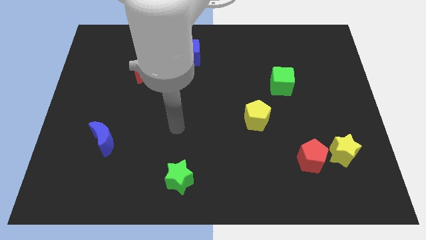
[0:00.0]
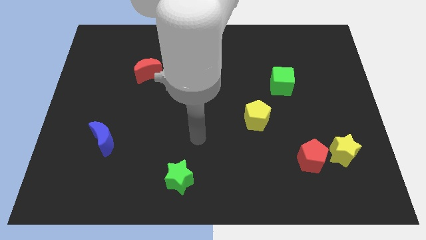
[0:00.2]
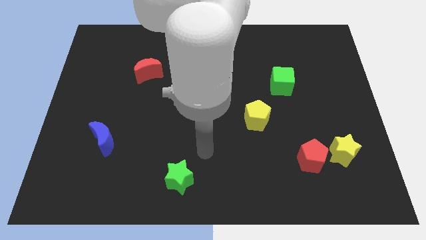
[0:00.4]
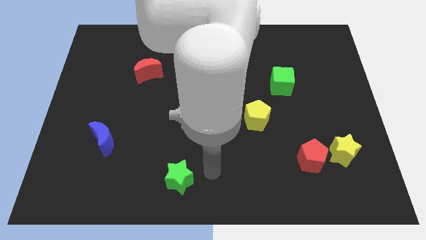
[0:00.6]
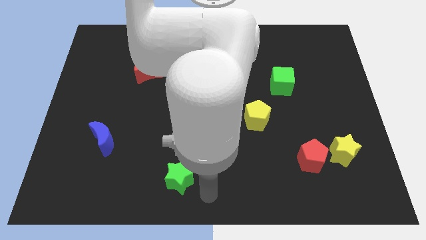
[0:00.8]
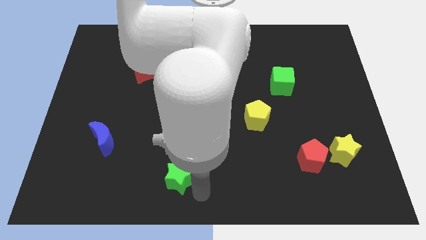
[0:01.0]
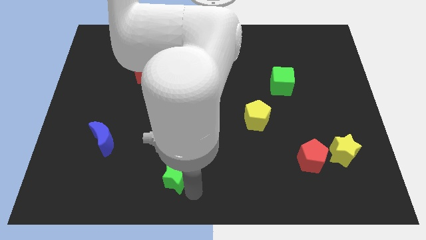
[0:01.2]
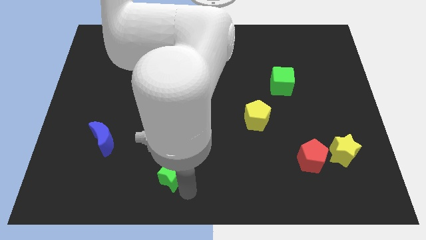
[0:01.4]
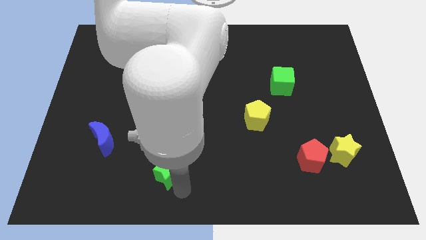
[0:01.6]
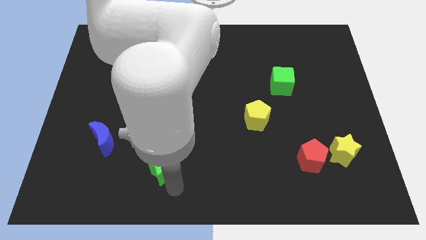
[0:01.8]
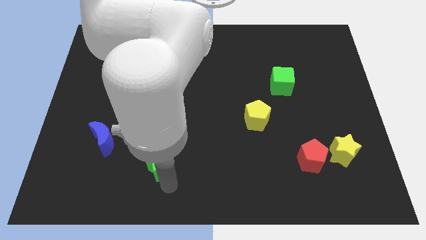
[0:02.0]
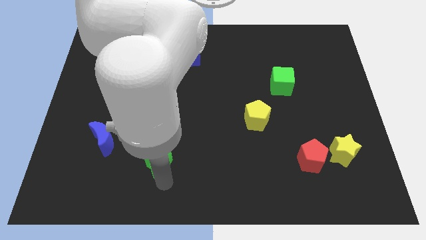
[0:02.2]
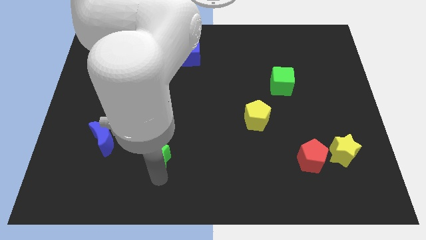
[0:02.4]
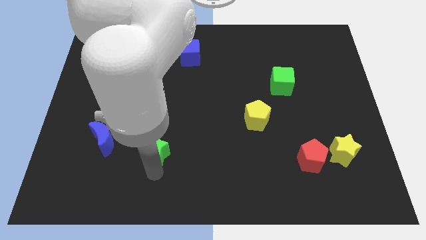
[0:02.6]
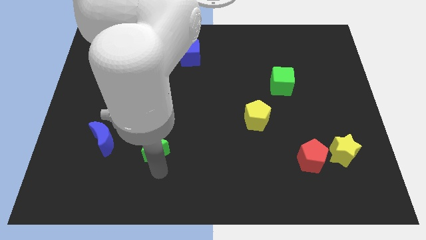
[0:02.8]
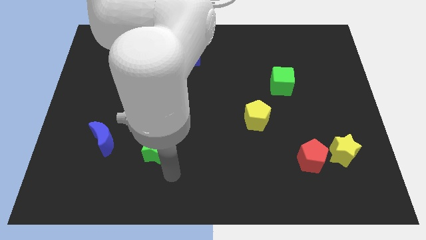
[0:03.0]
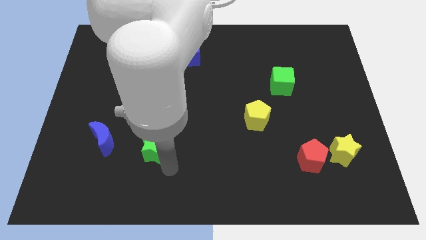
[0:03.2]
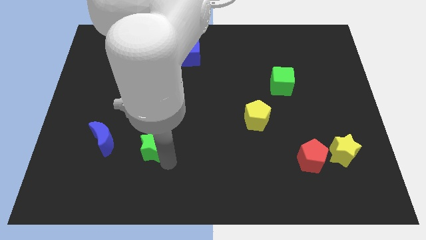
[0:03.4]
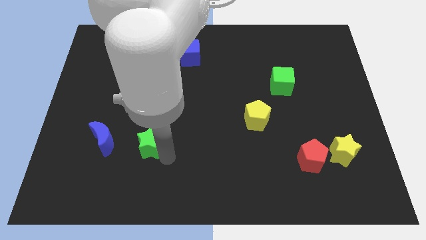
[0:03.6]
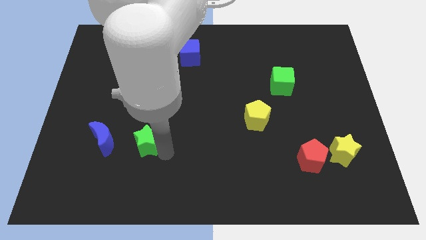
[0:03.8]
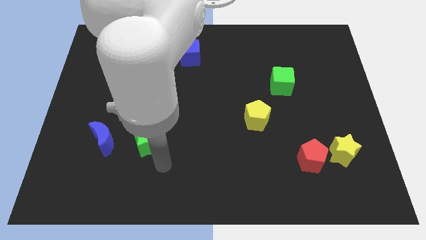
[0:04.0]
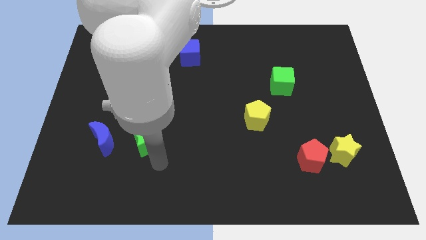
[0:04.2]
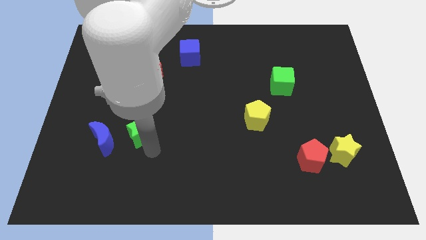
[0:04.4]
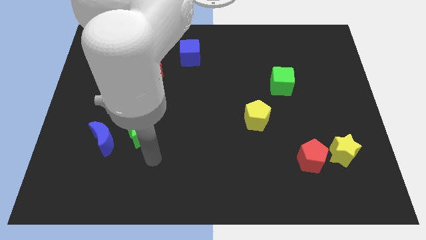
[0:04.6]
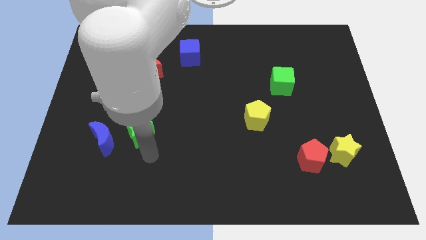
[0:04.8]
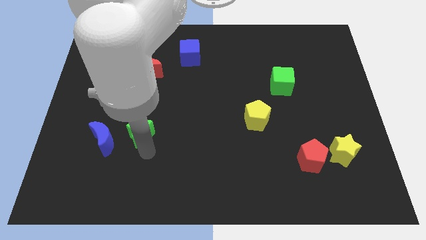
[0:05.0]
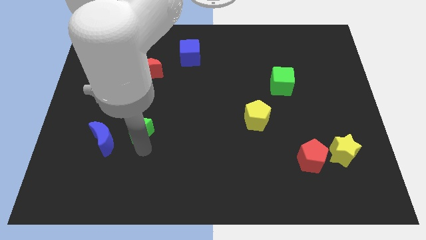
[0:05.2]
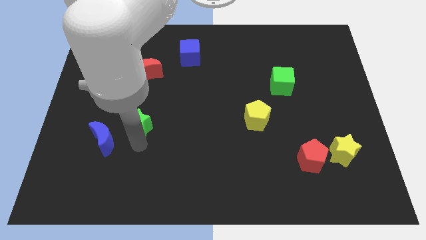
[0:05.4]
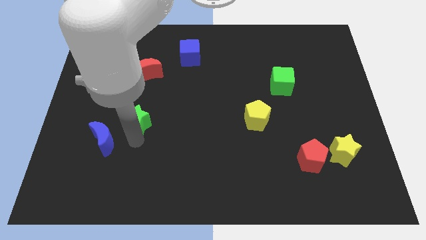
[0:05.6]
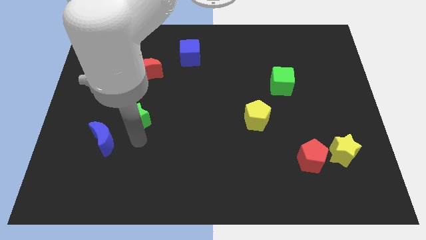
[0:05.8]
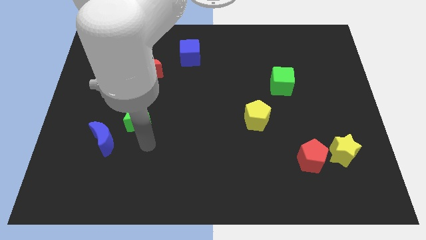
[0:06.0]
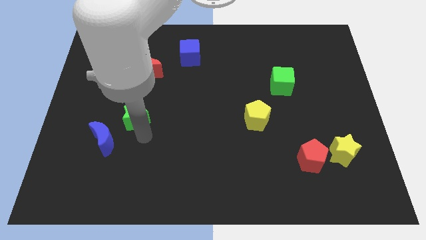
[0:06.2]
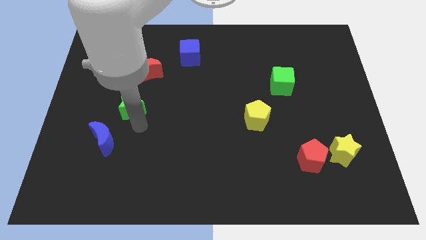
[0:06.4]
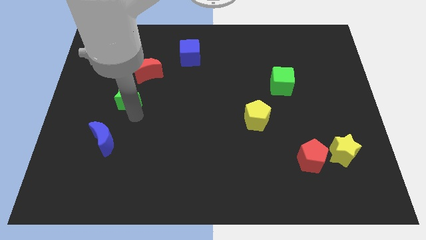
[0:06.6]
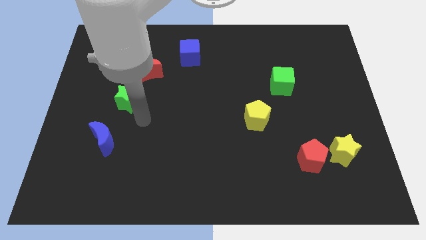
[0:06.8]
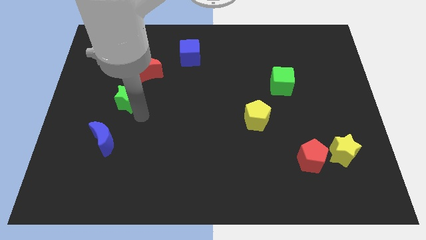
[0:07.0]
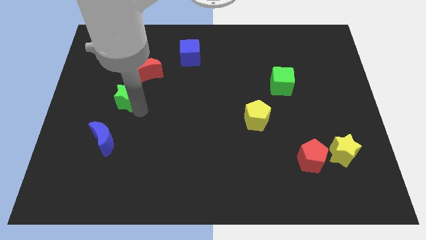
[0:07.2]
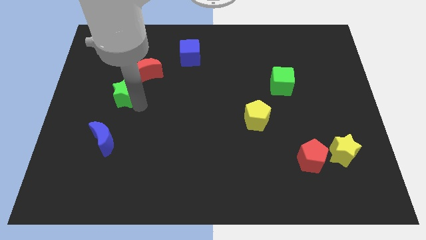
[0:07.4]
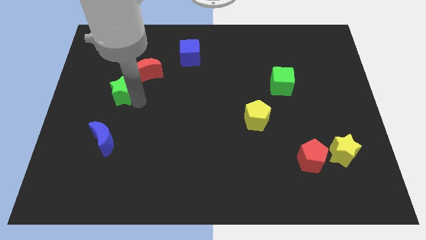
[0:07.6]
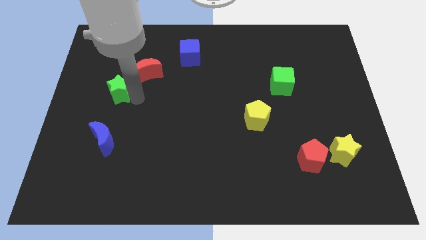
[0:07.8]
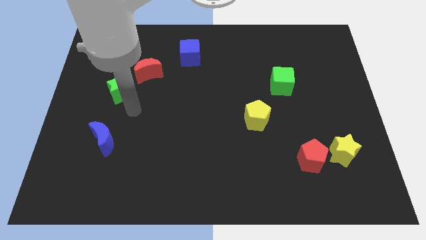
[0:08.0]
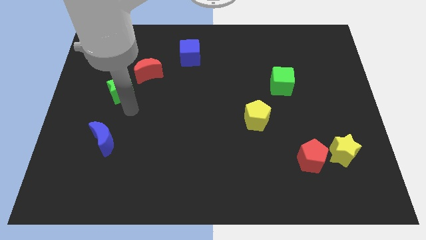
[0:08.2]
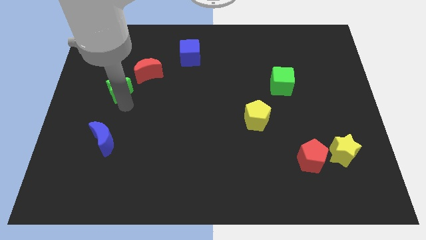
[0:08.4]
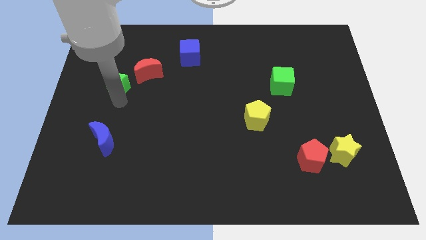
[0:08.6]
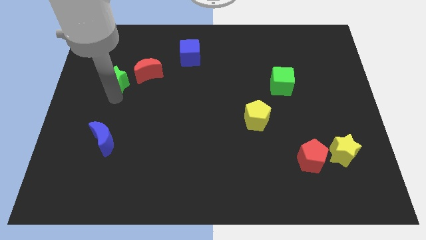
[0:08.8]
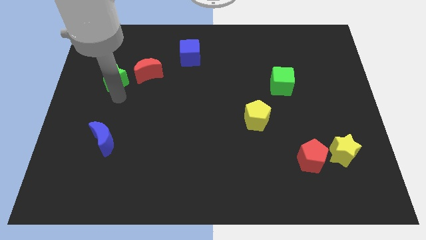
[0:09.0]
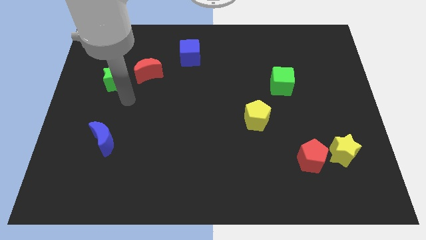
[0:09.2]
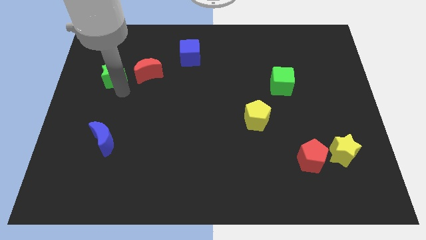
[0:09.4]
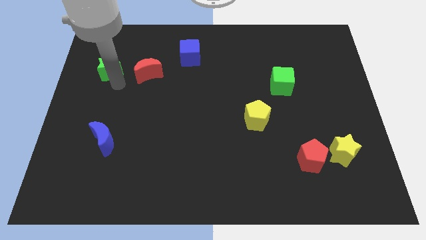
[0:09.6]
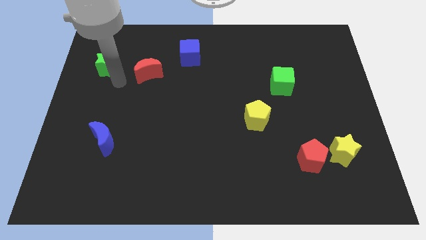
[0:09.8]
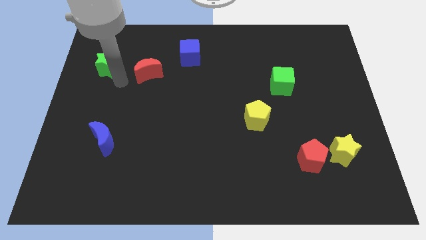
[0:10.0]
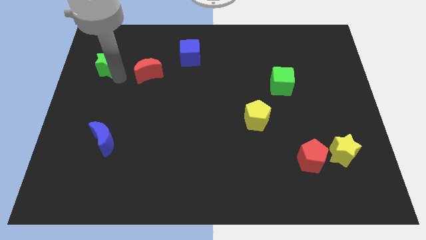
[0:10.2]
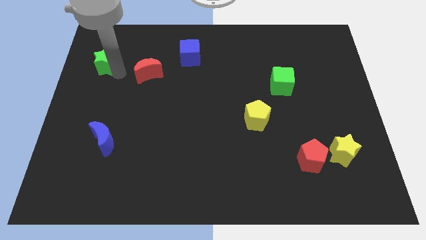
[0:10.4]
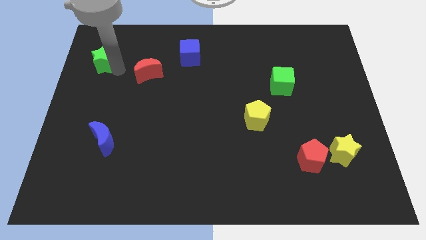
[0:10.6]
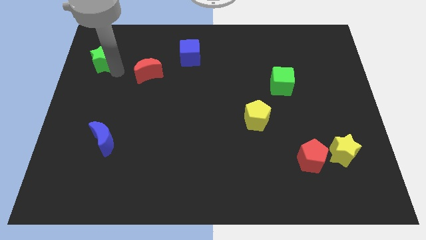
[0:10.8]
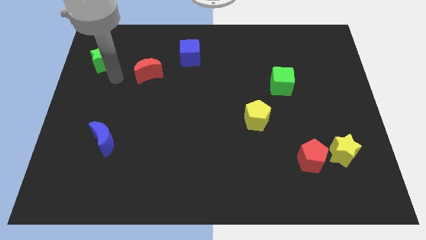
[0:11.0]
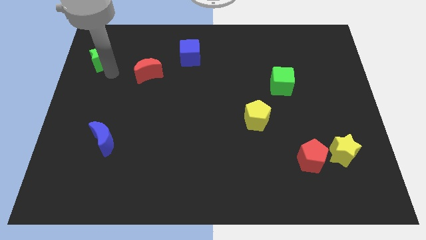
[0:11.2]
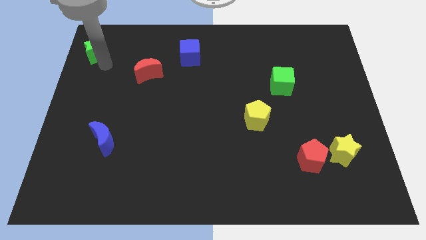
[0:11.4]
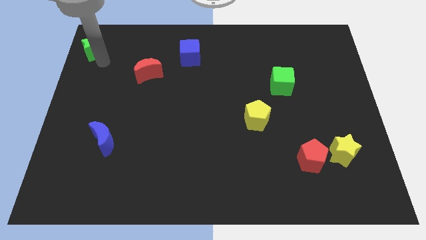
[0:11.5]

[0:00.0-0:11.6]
move the green star to the upper left corner

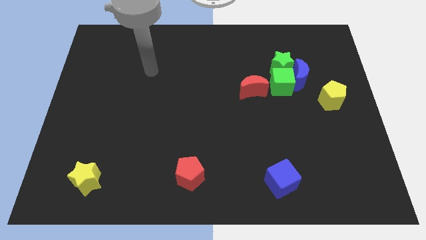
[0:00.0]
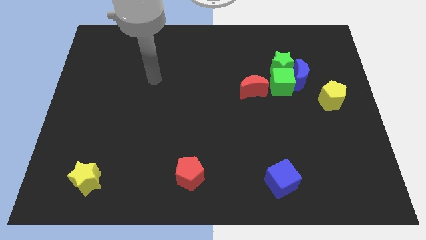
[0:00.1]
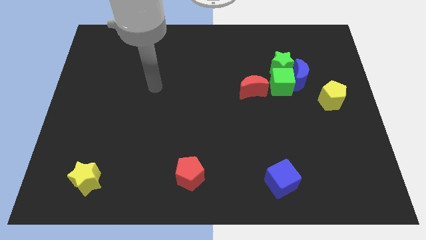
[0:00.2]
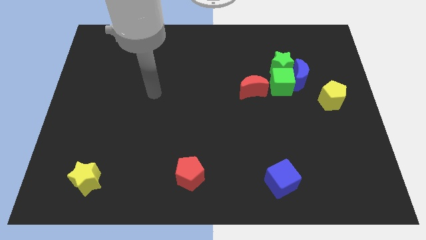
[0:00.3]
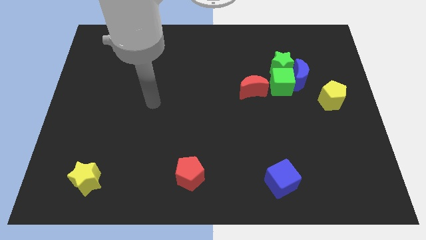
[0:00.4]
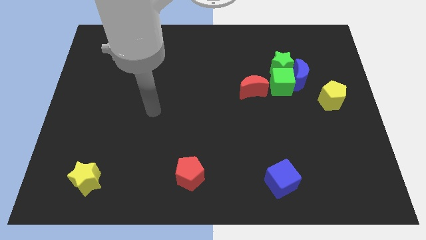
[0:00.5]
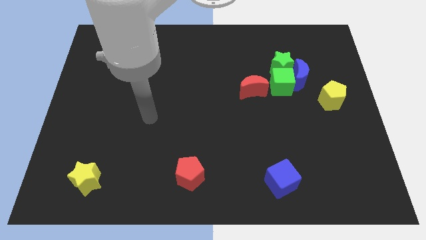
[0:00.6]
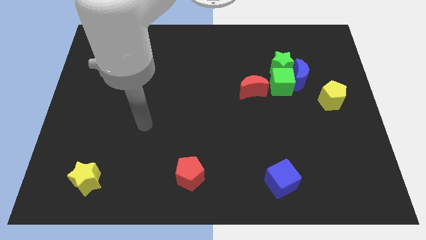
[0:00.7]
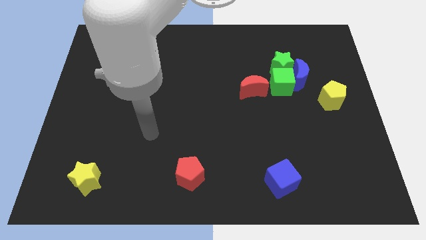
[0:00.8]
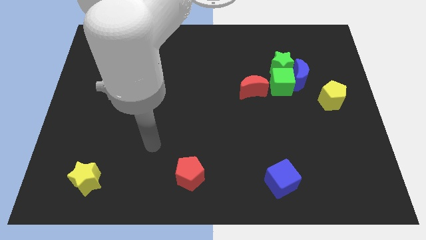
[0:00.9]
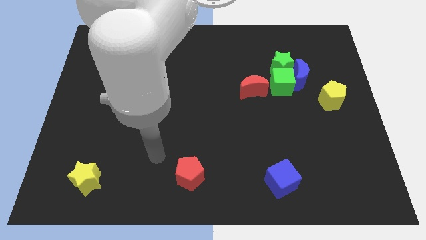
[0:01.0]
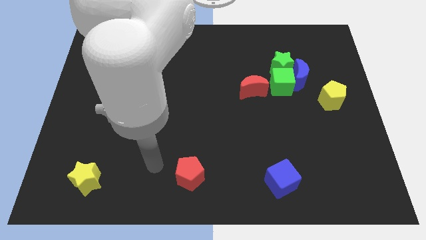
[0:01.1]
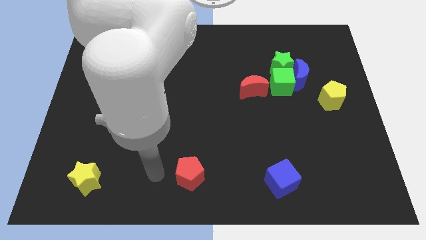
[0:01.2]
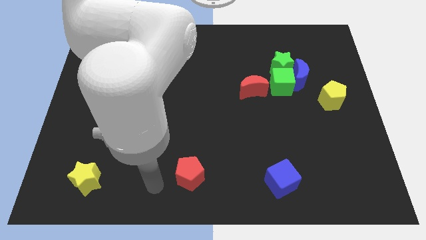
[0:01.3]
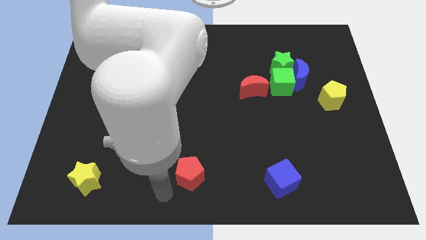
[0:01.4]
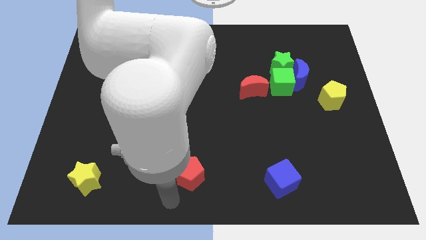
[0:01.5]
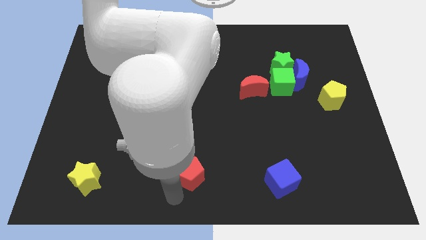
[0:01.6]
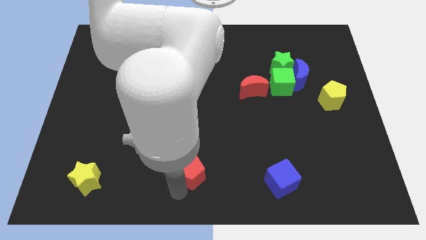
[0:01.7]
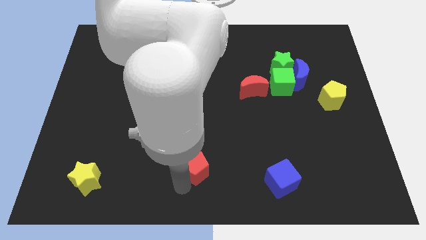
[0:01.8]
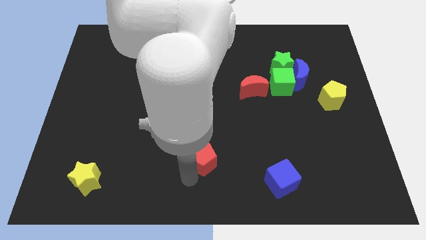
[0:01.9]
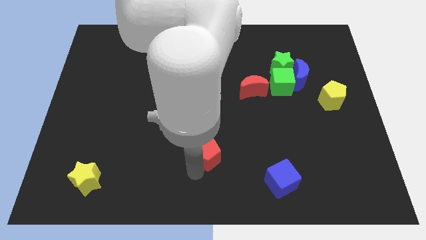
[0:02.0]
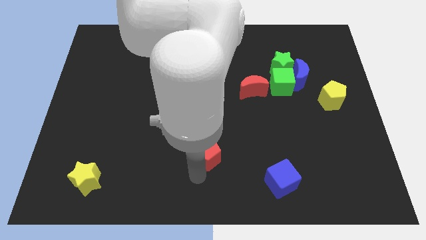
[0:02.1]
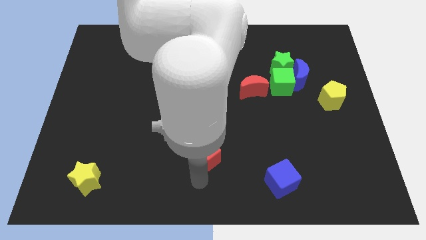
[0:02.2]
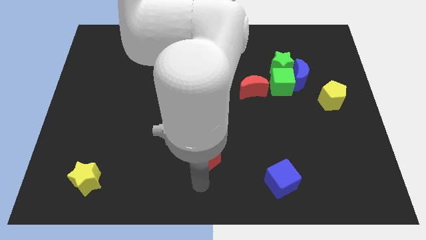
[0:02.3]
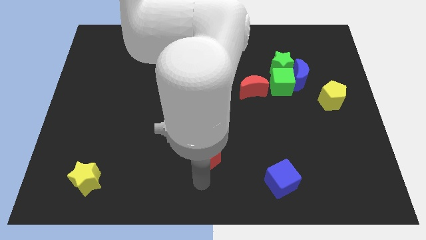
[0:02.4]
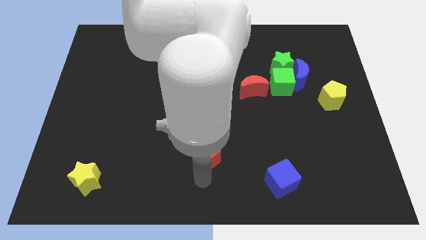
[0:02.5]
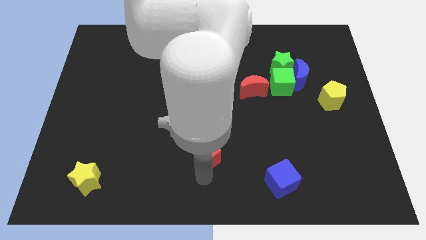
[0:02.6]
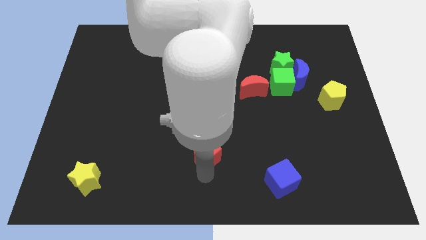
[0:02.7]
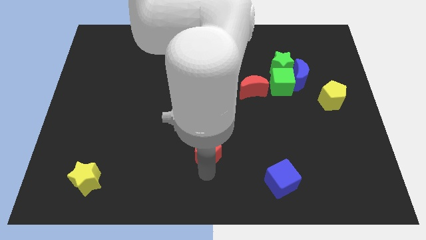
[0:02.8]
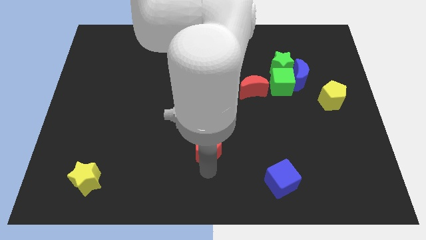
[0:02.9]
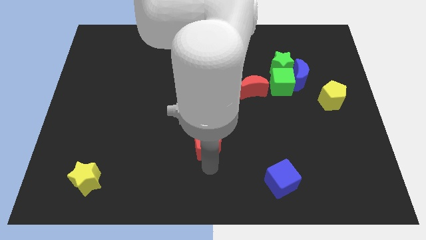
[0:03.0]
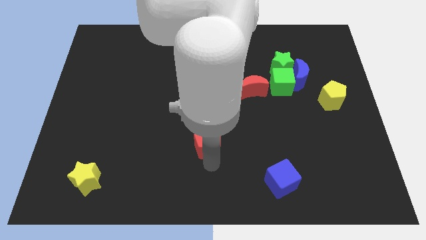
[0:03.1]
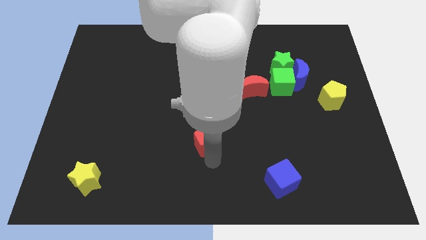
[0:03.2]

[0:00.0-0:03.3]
push the red pentagon to the center of the board
